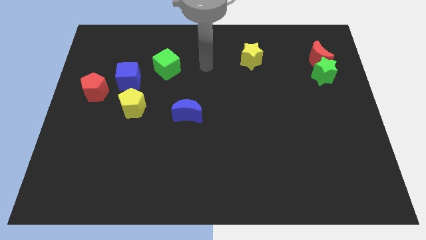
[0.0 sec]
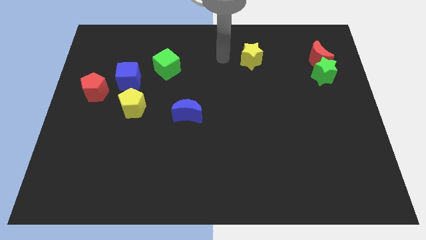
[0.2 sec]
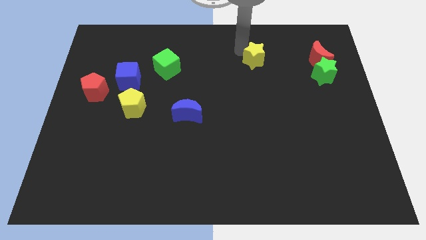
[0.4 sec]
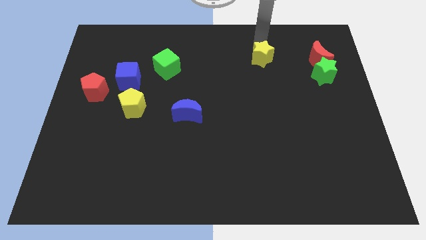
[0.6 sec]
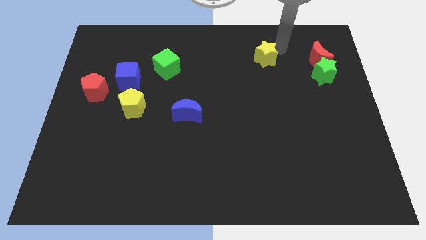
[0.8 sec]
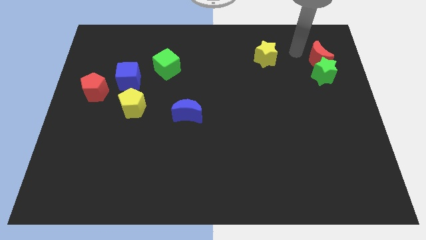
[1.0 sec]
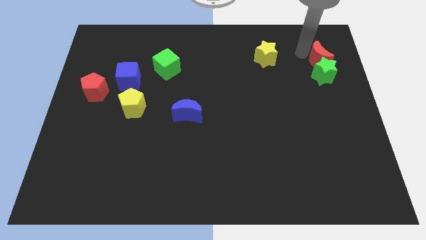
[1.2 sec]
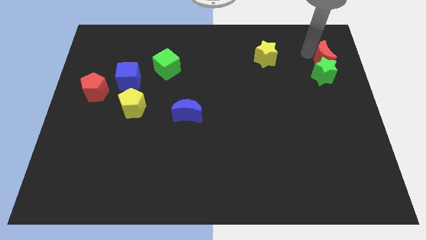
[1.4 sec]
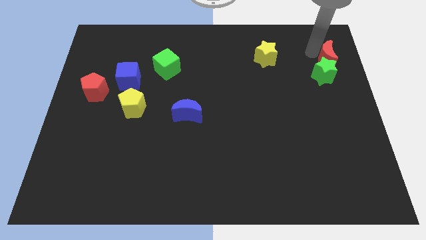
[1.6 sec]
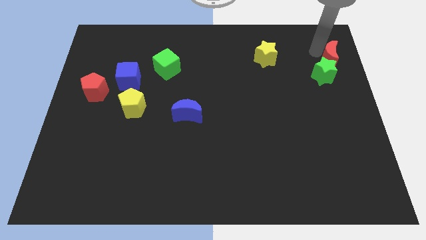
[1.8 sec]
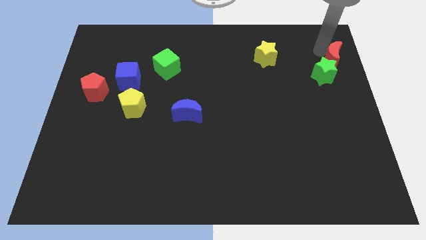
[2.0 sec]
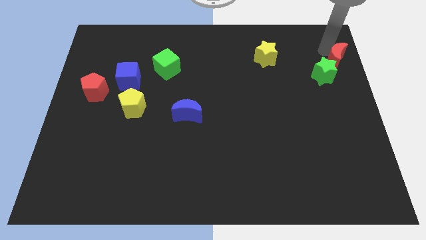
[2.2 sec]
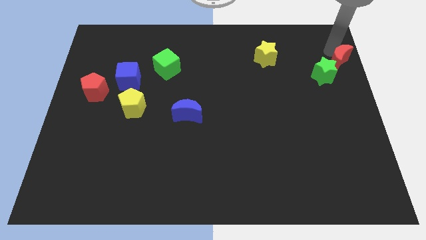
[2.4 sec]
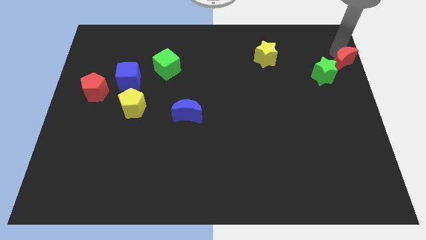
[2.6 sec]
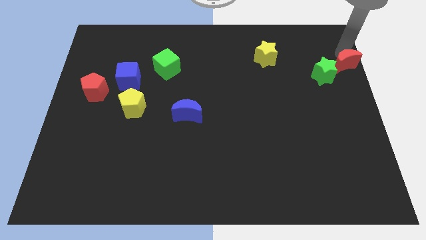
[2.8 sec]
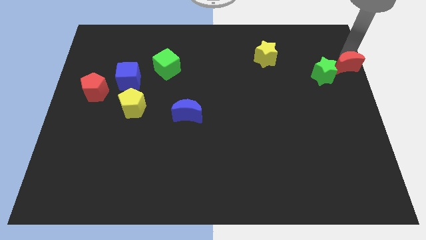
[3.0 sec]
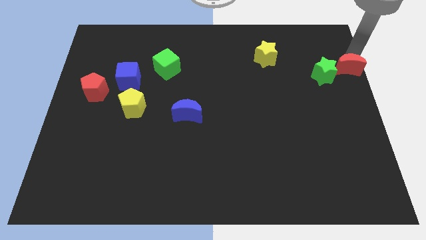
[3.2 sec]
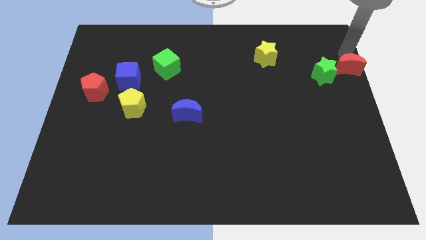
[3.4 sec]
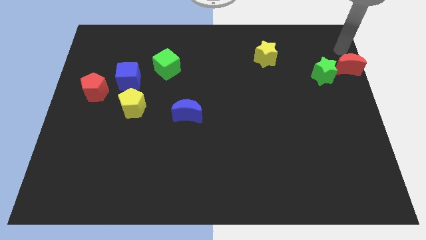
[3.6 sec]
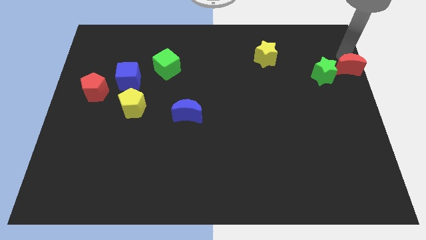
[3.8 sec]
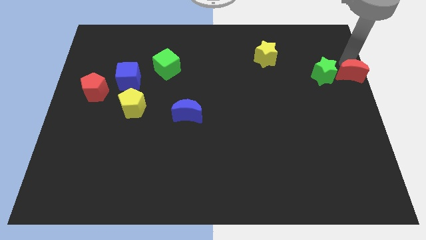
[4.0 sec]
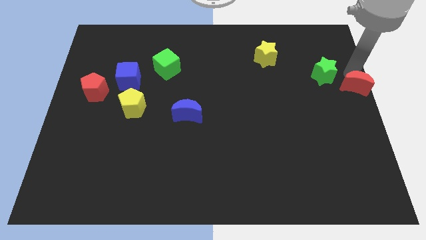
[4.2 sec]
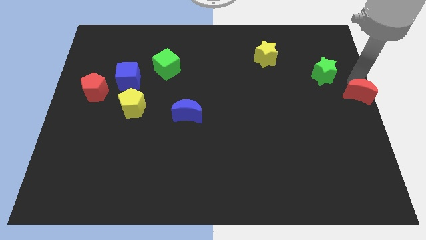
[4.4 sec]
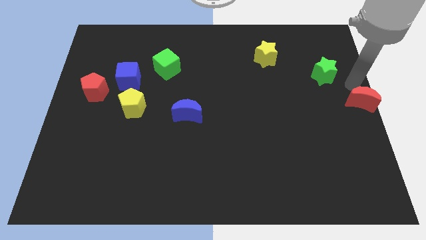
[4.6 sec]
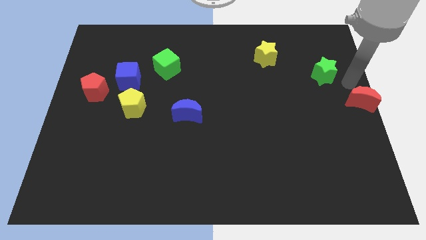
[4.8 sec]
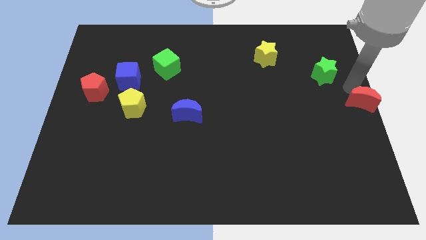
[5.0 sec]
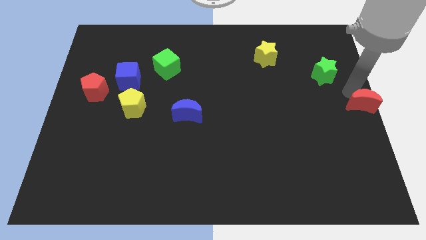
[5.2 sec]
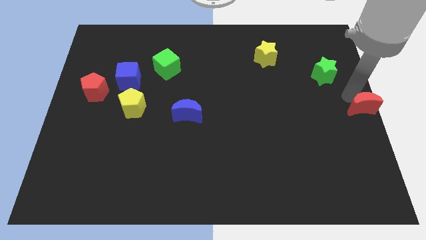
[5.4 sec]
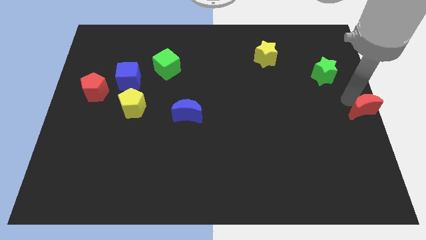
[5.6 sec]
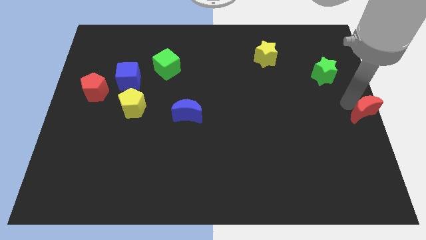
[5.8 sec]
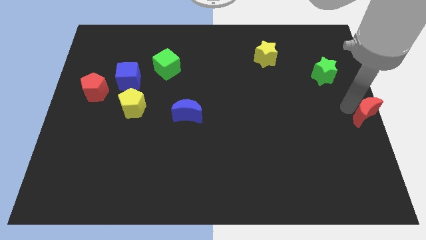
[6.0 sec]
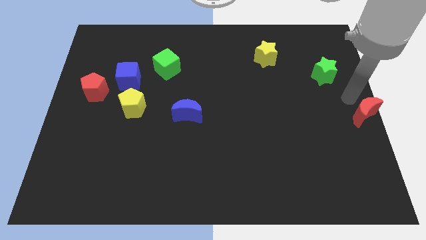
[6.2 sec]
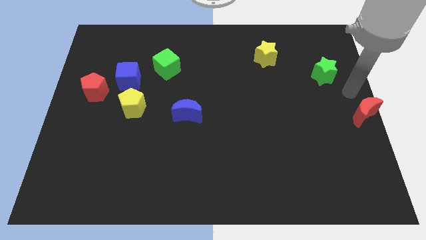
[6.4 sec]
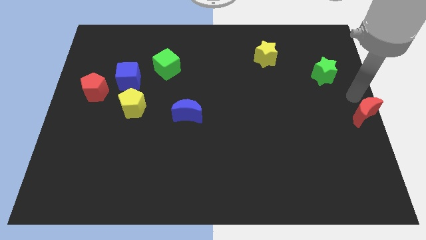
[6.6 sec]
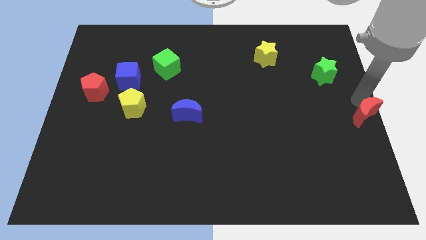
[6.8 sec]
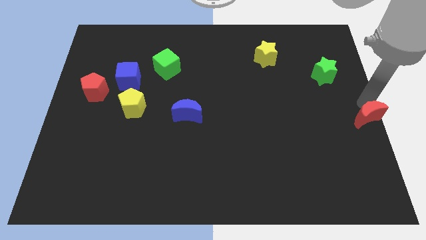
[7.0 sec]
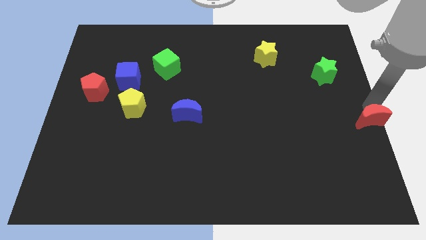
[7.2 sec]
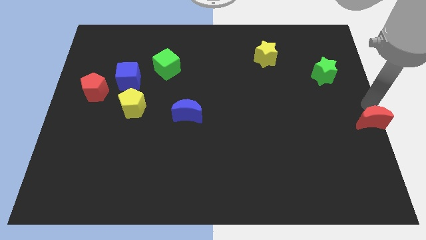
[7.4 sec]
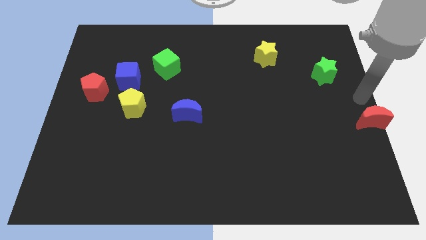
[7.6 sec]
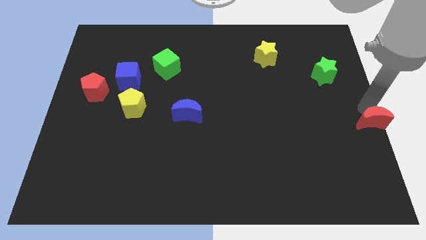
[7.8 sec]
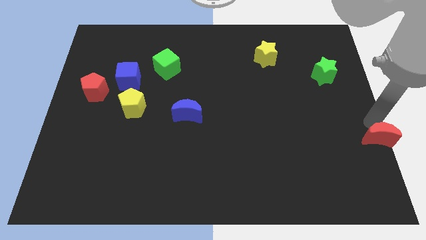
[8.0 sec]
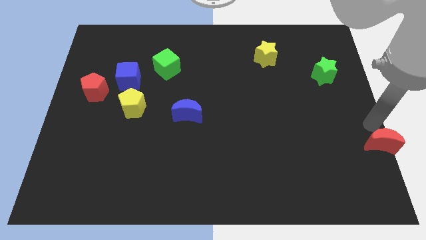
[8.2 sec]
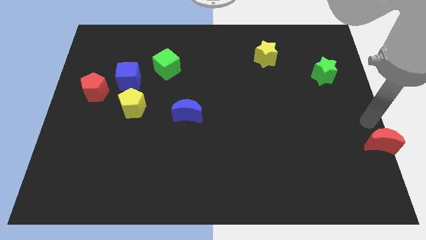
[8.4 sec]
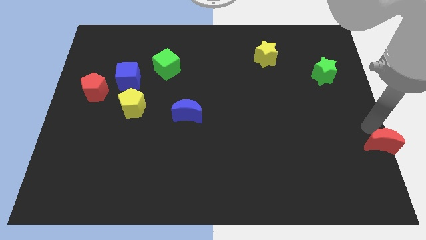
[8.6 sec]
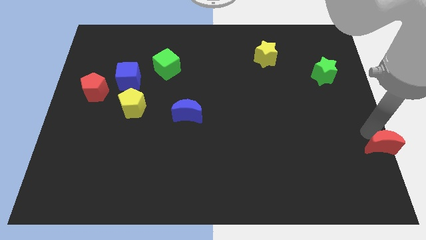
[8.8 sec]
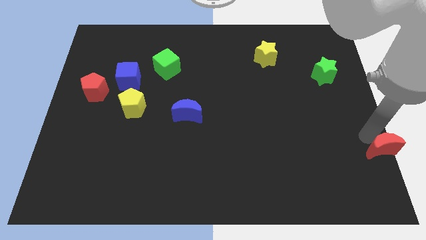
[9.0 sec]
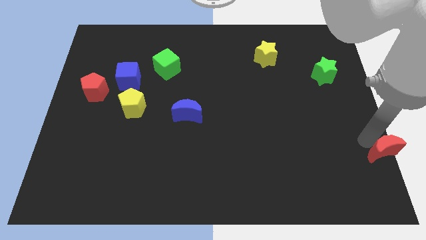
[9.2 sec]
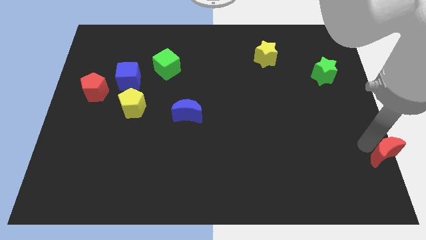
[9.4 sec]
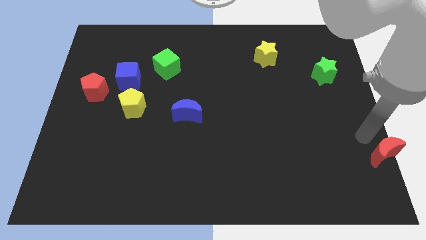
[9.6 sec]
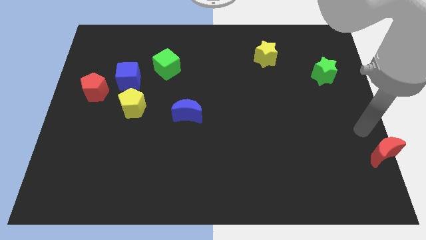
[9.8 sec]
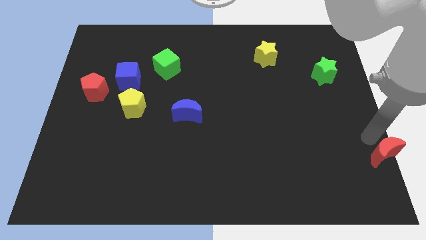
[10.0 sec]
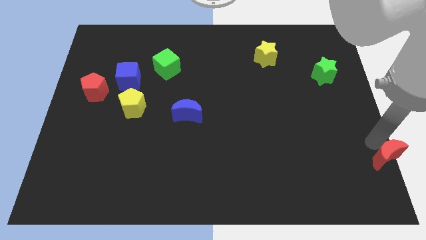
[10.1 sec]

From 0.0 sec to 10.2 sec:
push the red moon to the bottom right

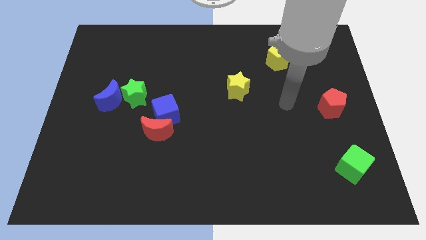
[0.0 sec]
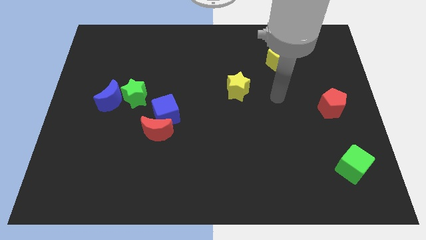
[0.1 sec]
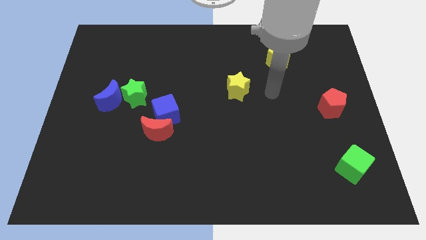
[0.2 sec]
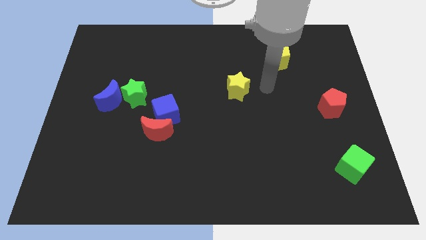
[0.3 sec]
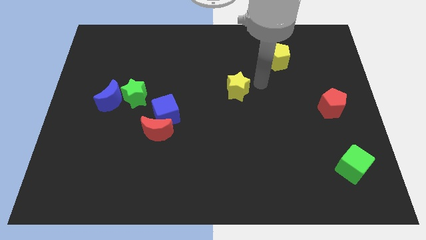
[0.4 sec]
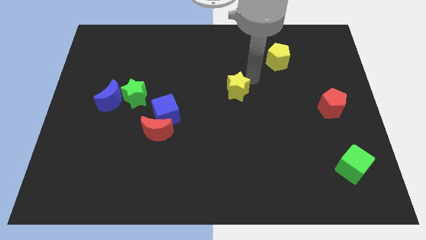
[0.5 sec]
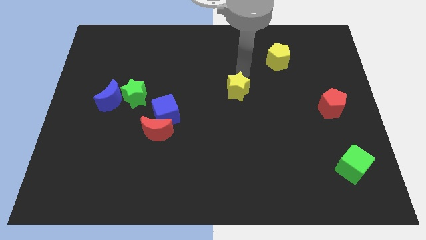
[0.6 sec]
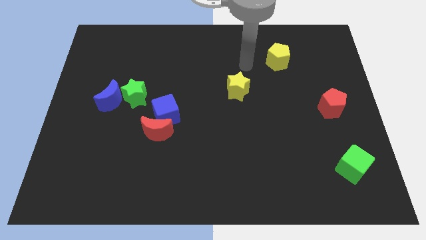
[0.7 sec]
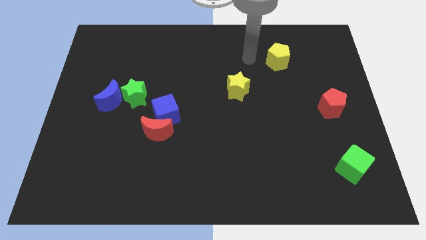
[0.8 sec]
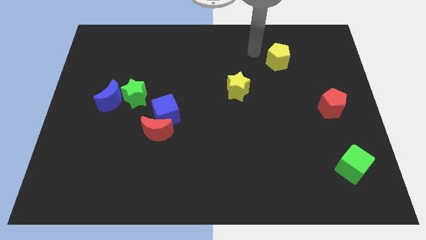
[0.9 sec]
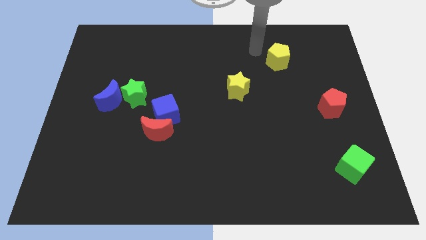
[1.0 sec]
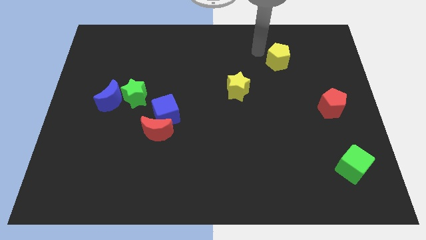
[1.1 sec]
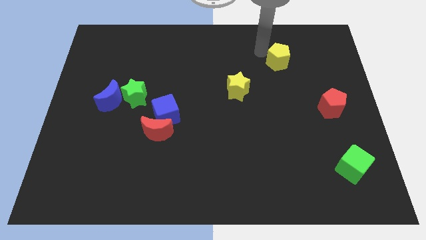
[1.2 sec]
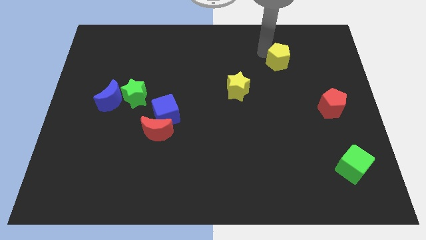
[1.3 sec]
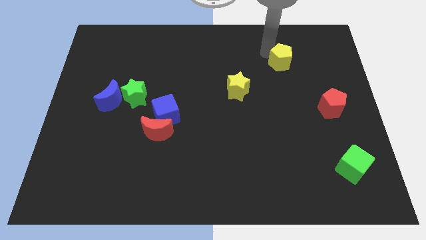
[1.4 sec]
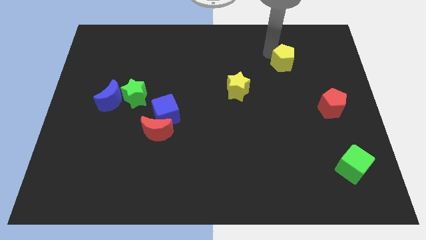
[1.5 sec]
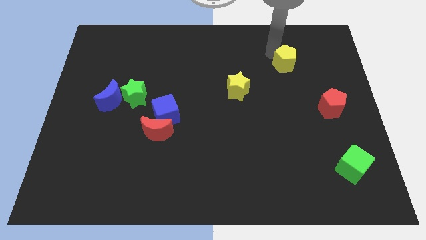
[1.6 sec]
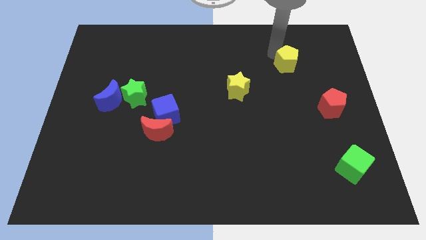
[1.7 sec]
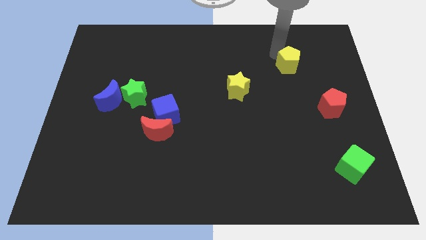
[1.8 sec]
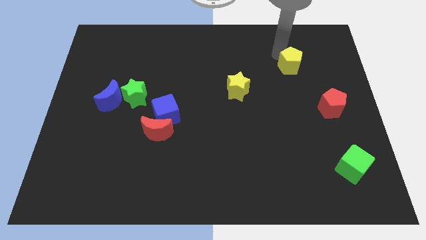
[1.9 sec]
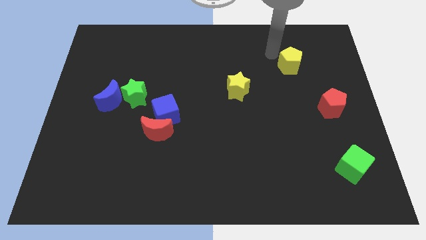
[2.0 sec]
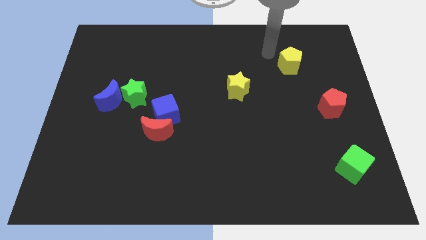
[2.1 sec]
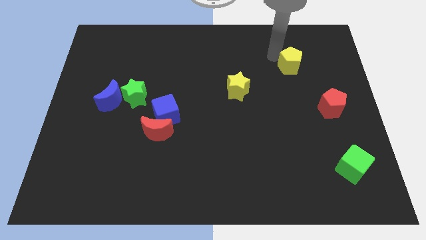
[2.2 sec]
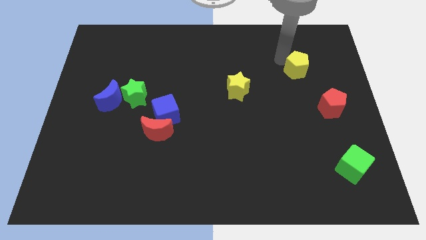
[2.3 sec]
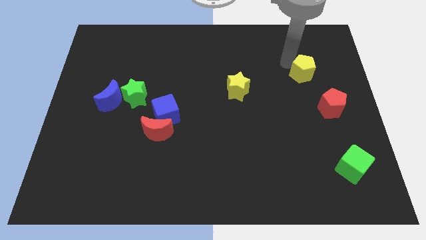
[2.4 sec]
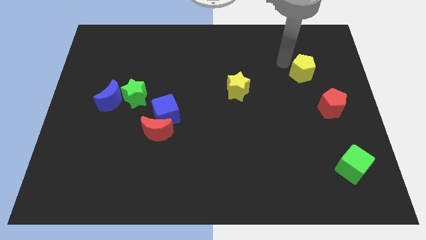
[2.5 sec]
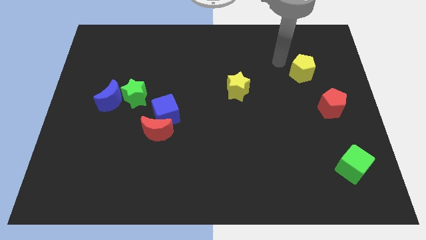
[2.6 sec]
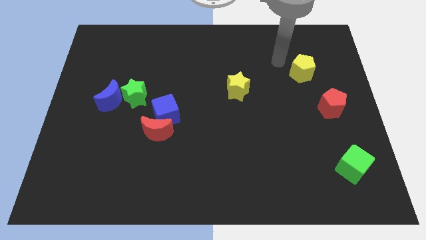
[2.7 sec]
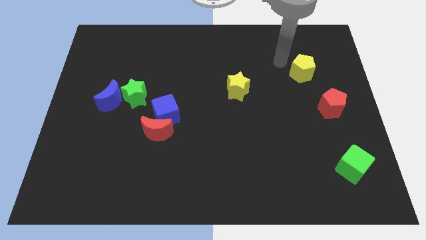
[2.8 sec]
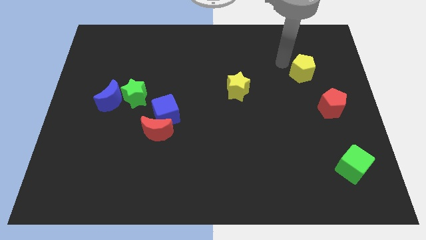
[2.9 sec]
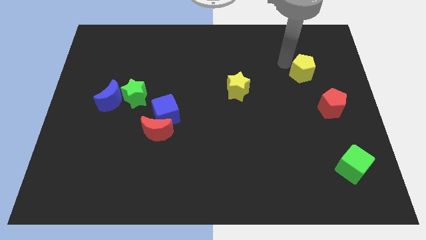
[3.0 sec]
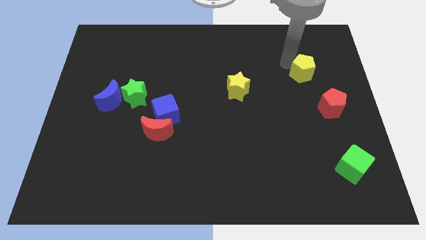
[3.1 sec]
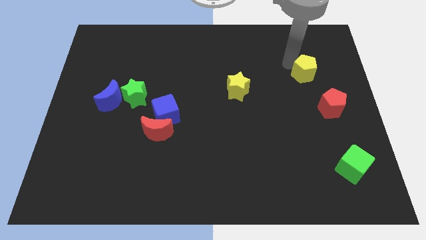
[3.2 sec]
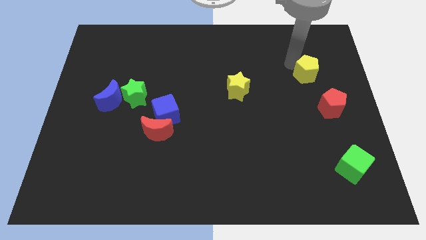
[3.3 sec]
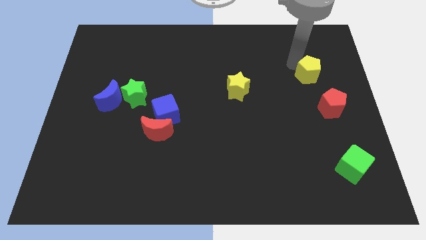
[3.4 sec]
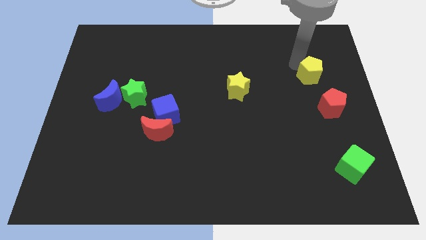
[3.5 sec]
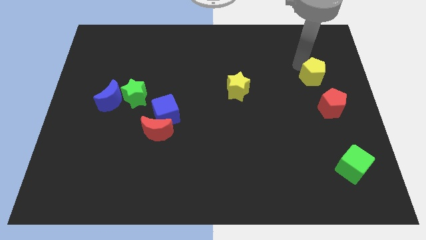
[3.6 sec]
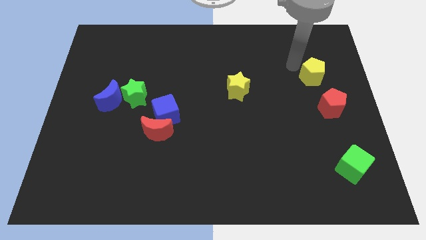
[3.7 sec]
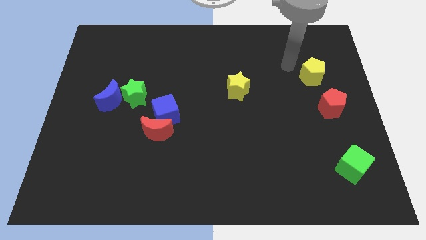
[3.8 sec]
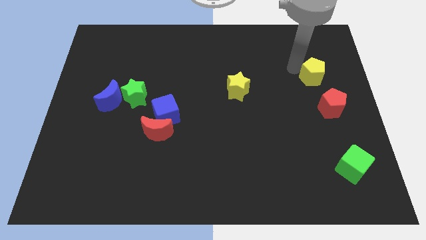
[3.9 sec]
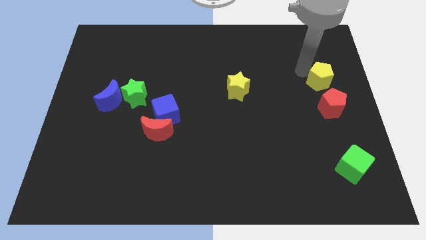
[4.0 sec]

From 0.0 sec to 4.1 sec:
slide the yellow pentagon to the right side of the board
